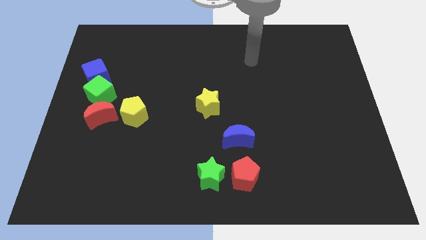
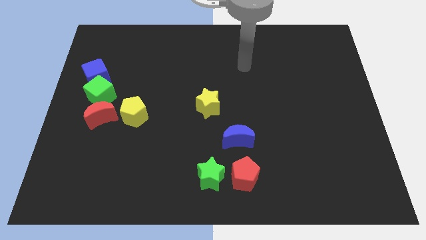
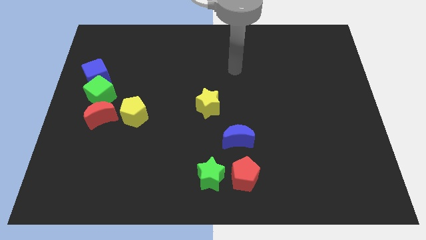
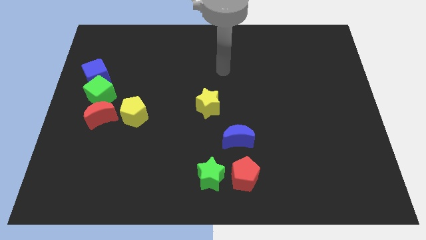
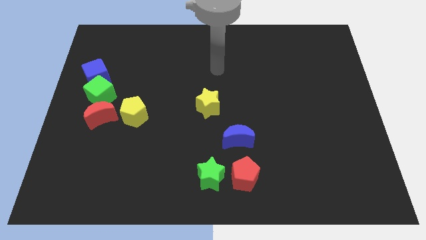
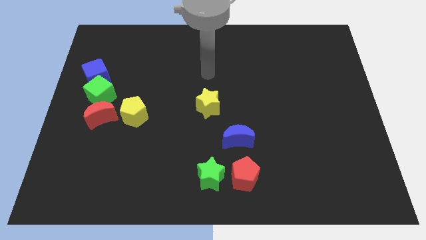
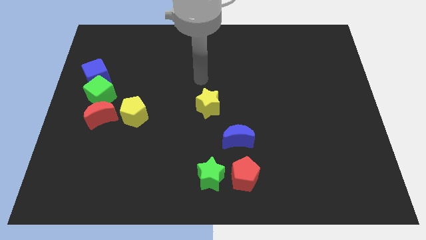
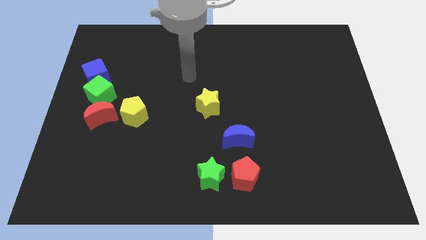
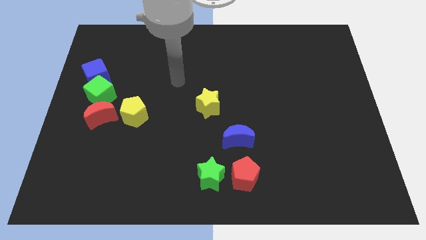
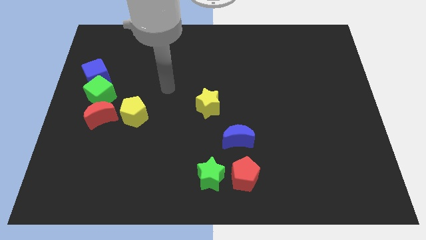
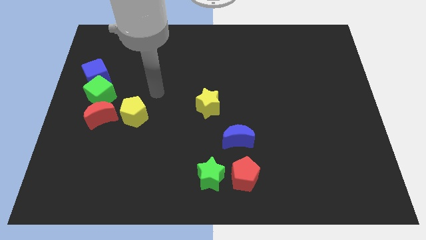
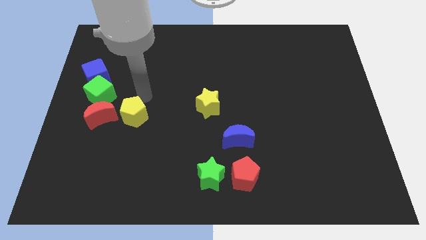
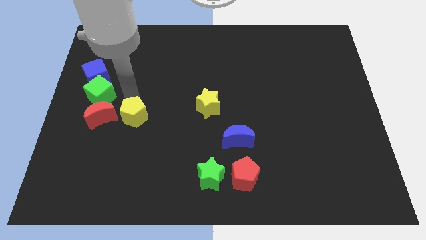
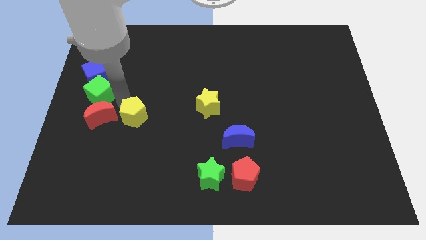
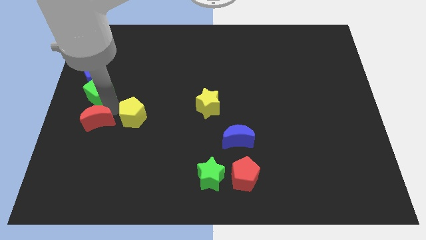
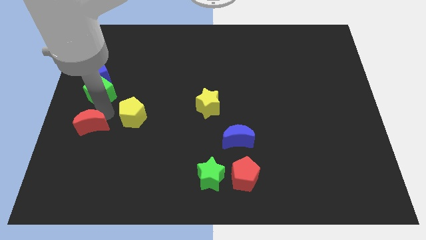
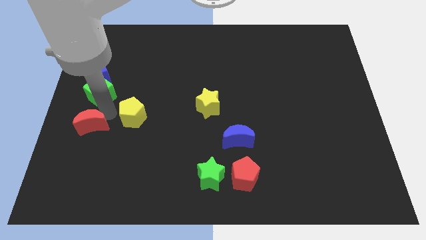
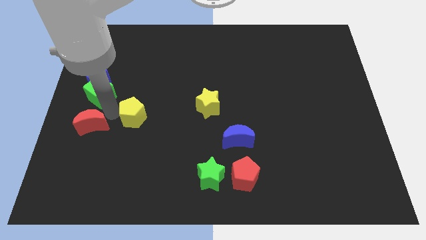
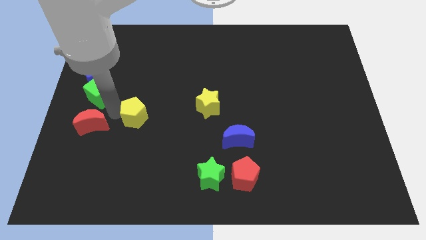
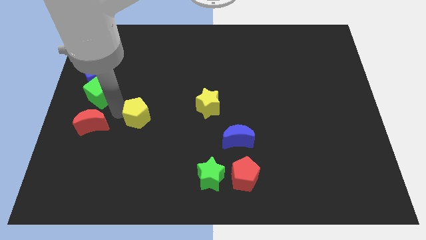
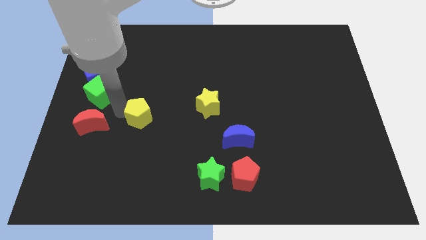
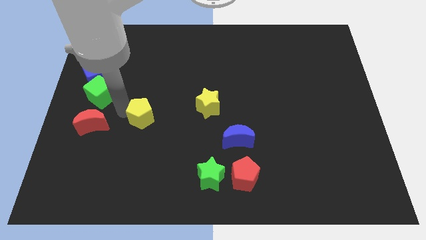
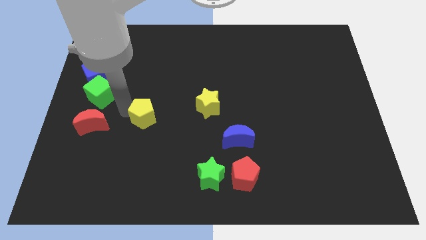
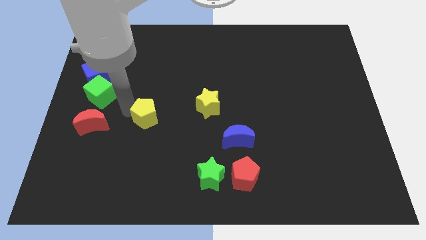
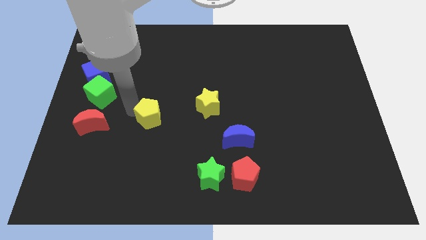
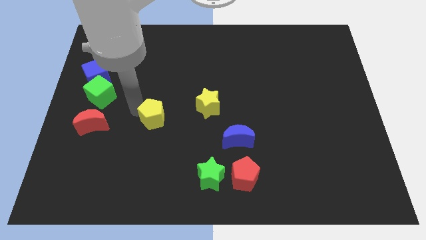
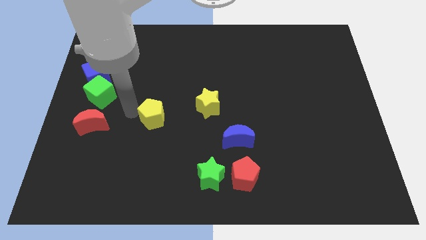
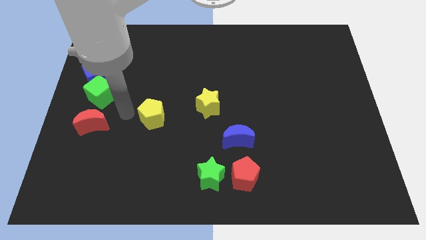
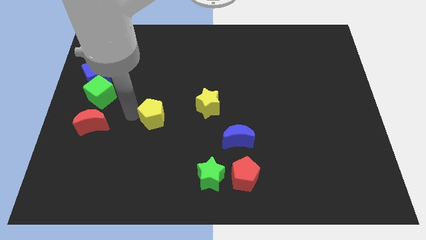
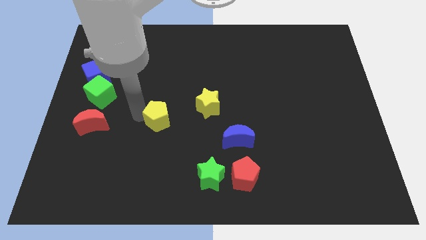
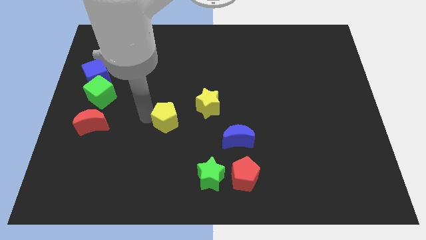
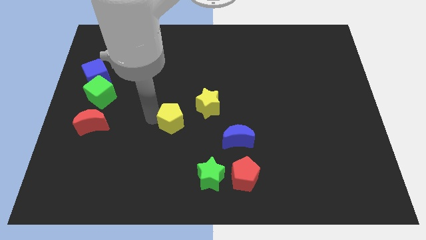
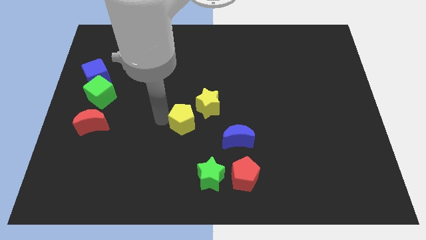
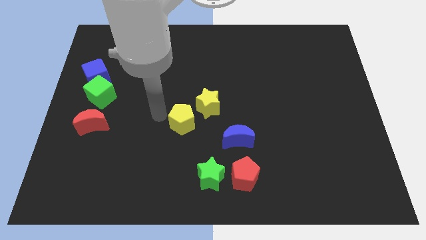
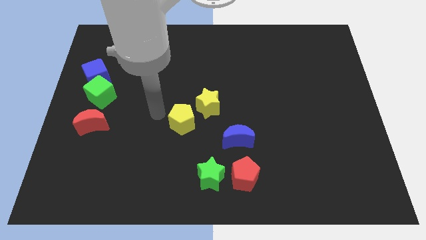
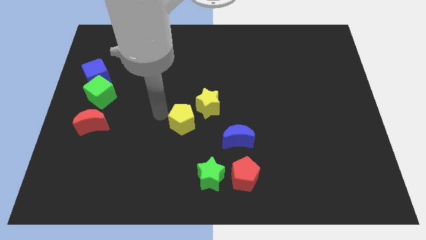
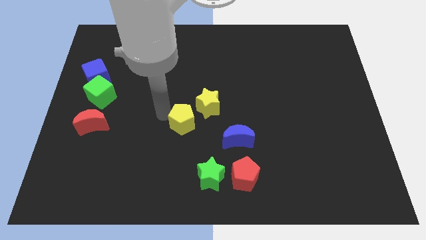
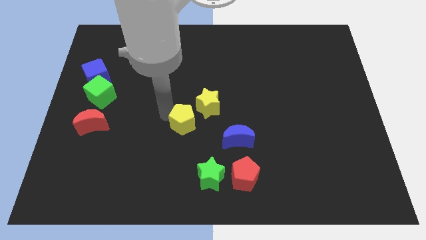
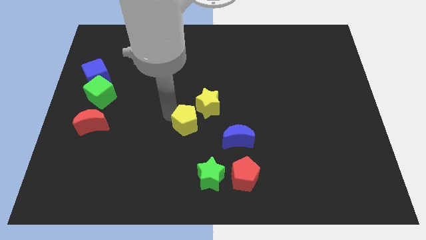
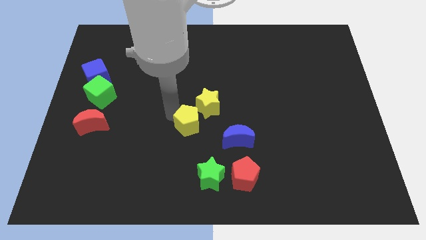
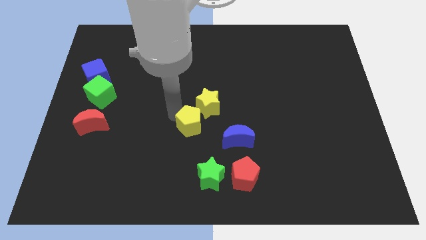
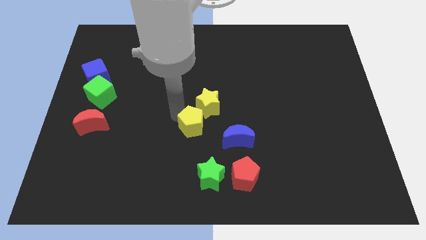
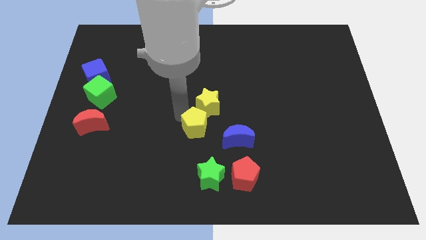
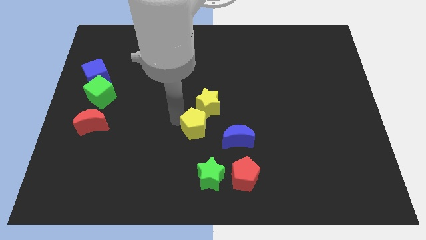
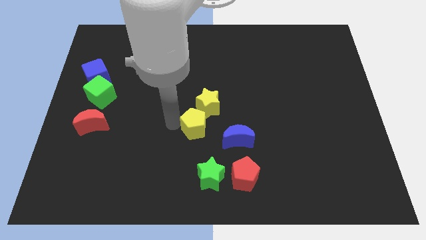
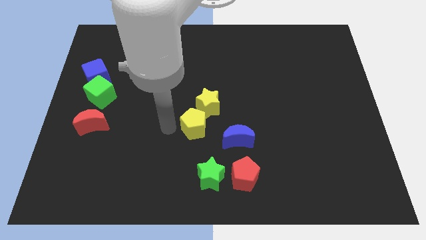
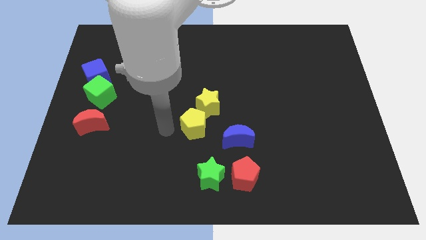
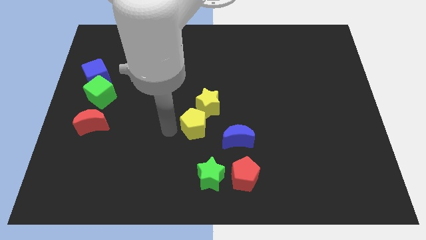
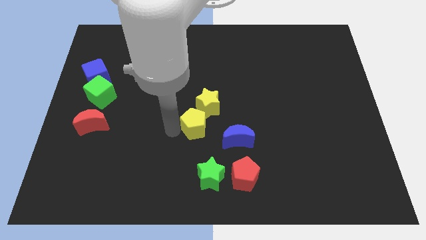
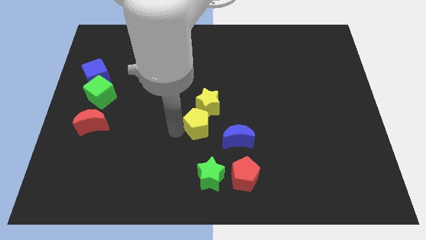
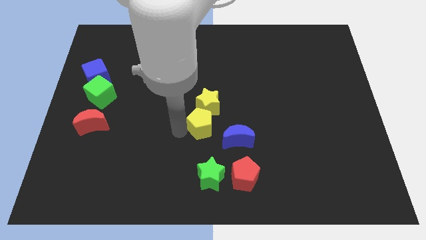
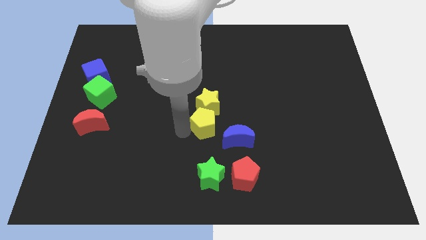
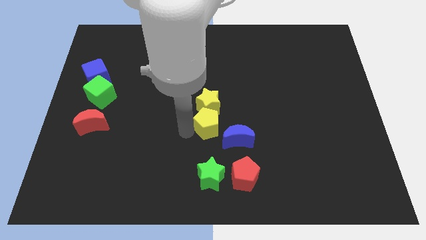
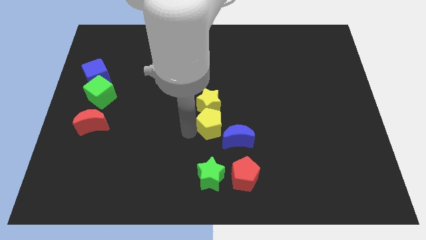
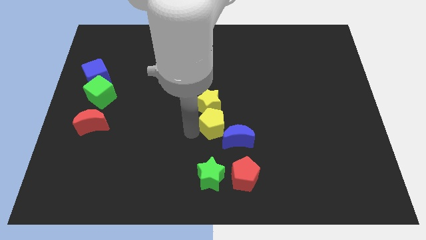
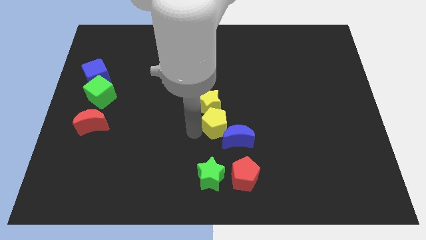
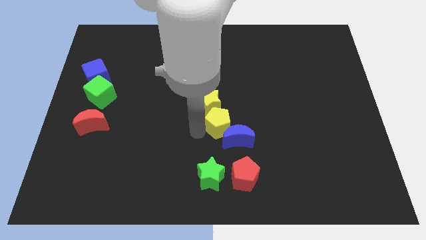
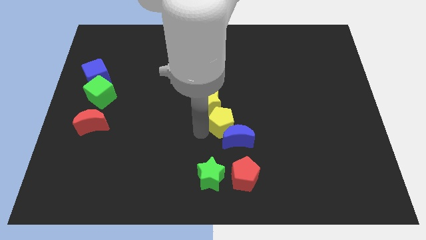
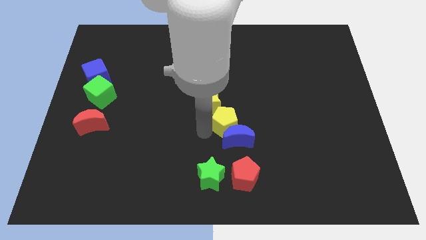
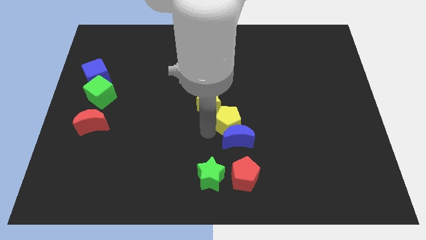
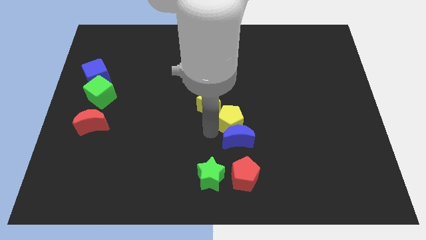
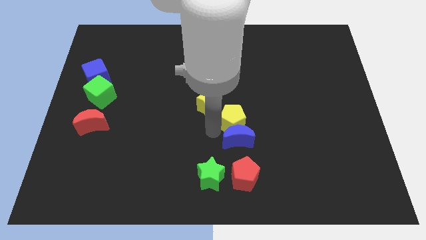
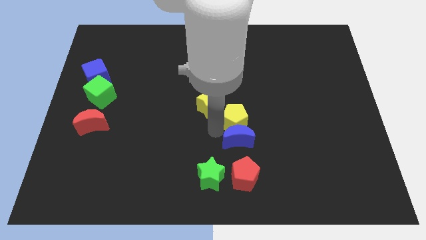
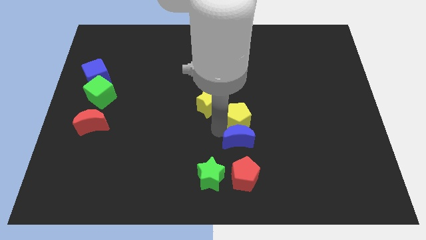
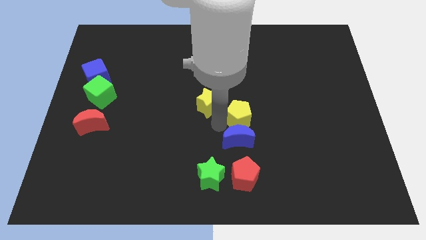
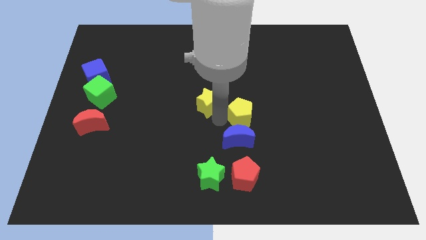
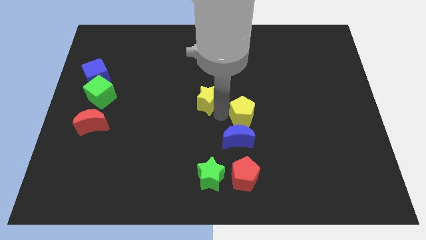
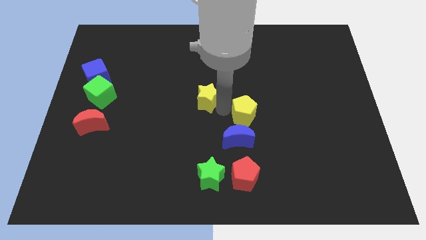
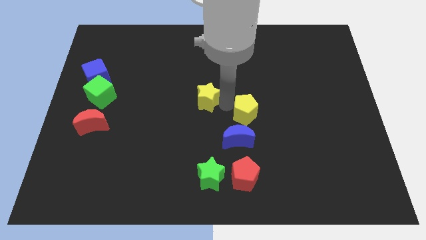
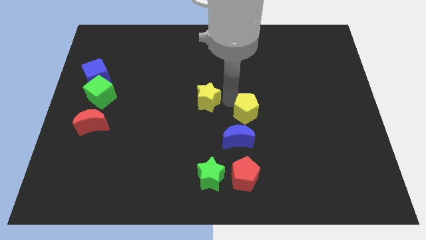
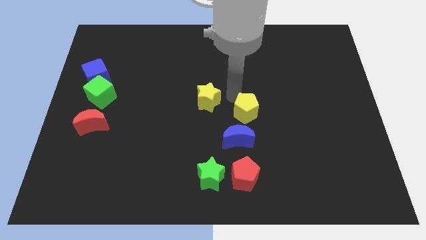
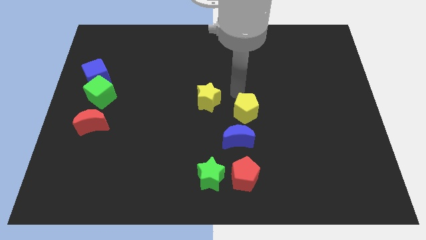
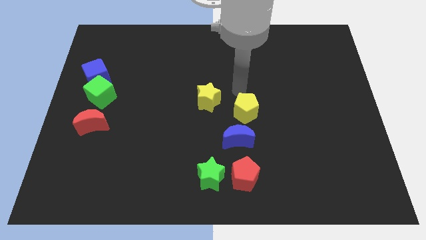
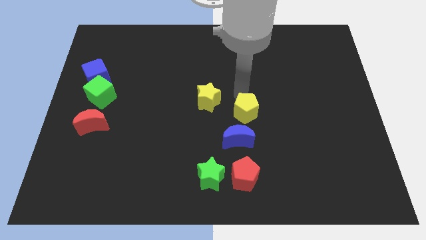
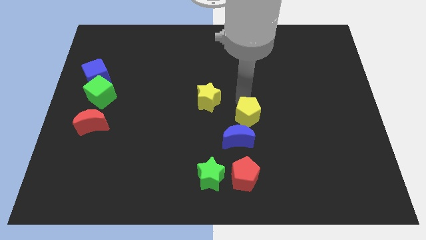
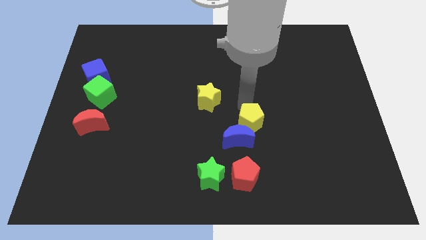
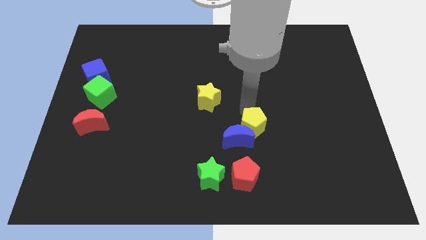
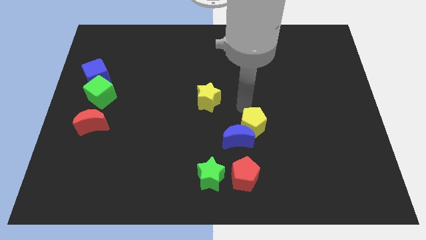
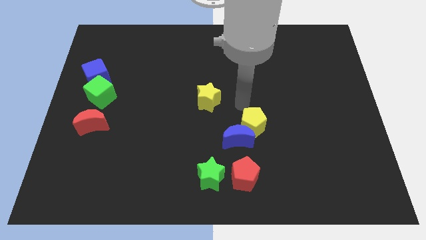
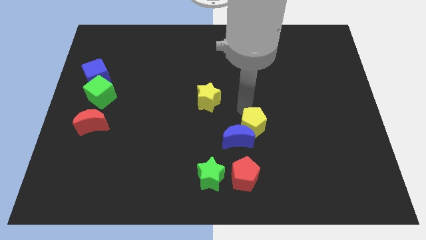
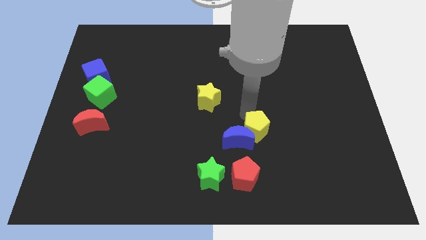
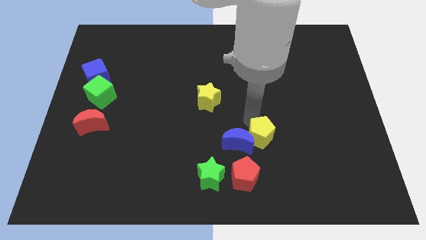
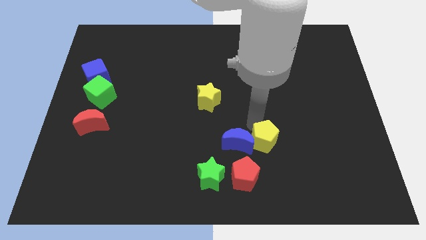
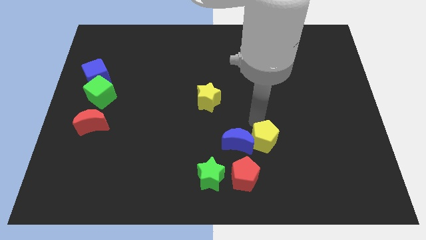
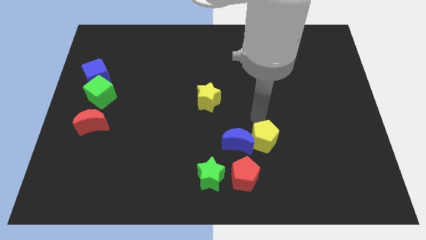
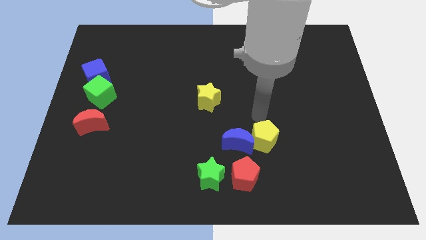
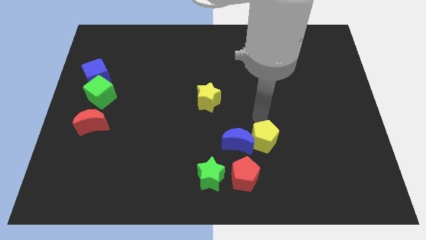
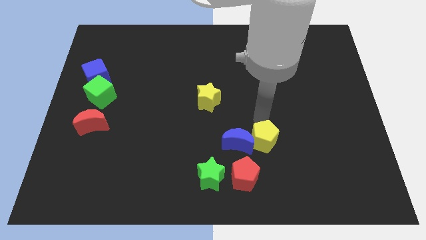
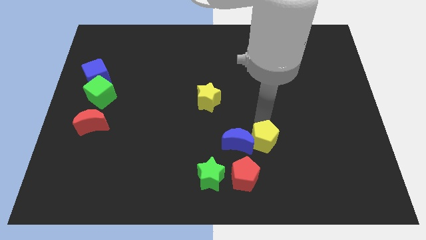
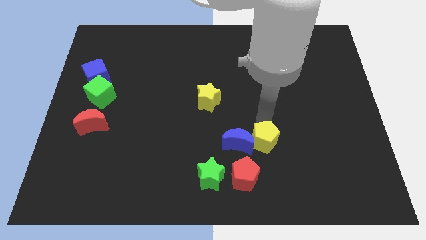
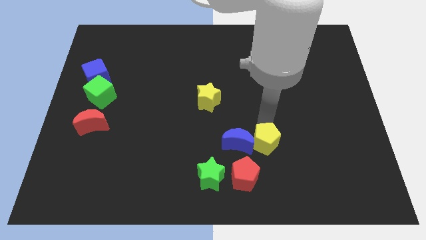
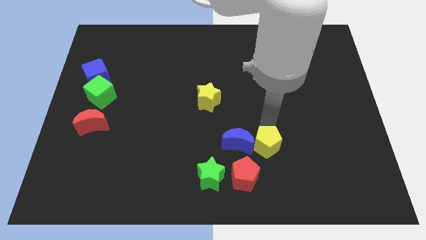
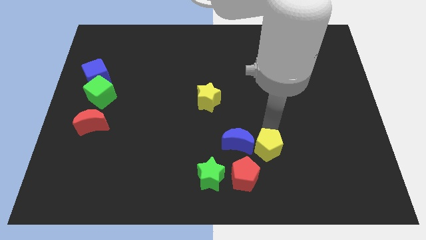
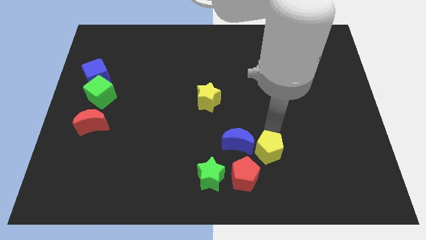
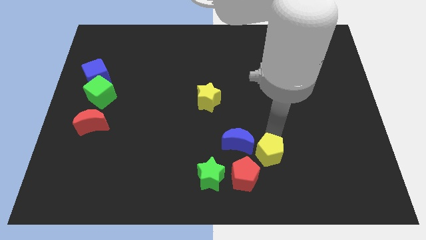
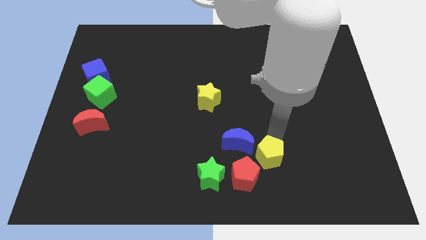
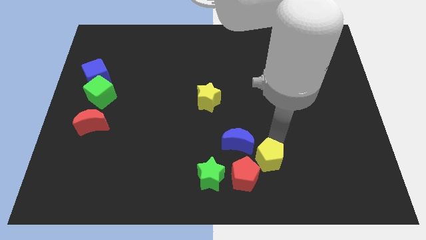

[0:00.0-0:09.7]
push the yellow pentagon to the right side of the green star
